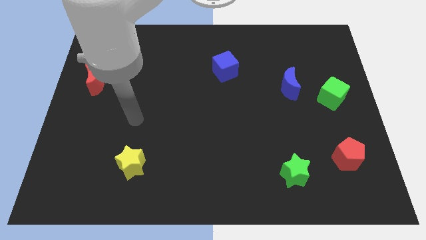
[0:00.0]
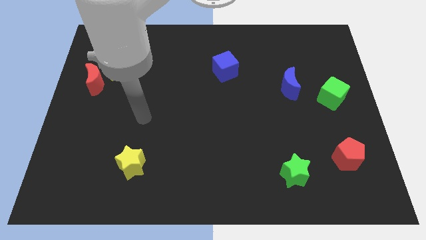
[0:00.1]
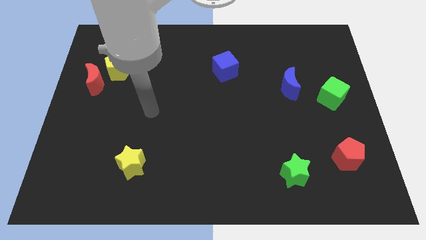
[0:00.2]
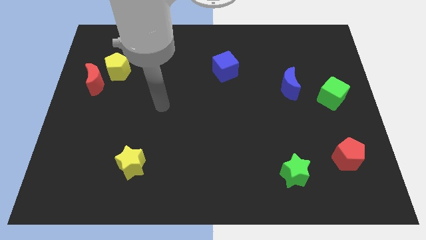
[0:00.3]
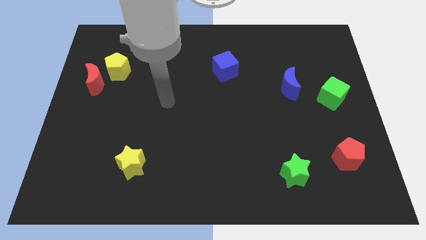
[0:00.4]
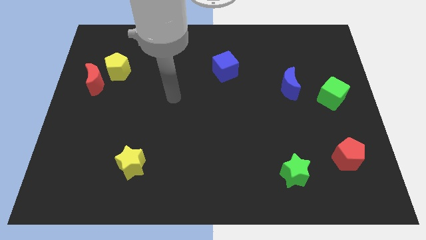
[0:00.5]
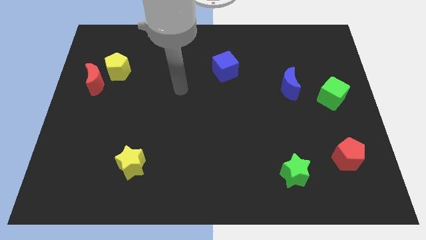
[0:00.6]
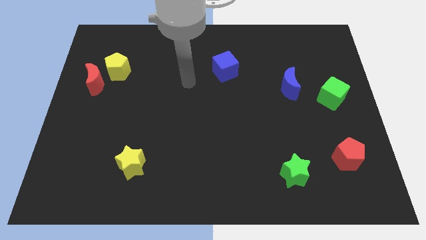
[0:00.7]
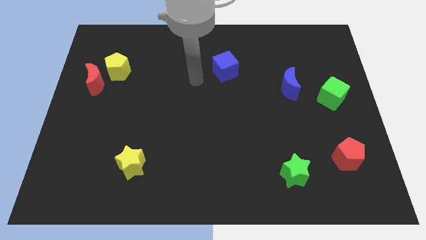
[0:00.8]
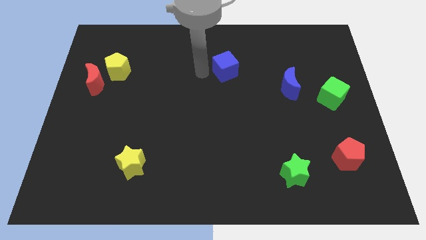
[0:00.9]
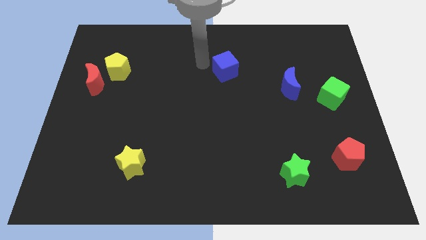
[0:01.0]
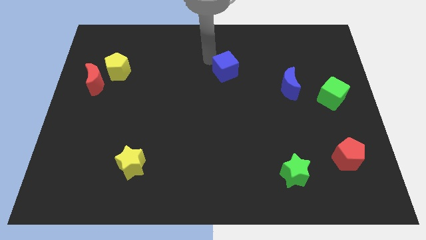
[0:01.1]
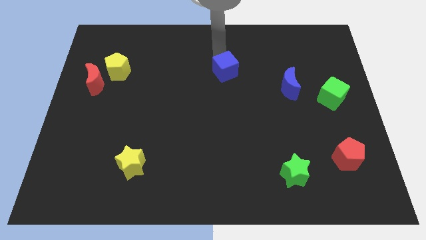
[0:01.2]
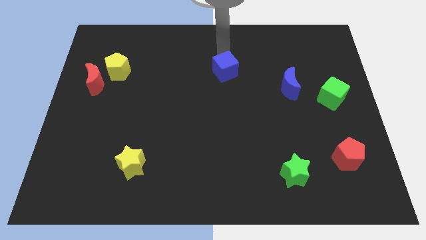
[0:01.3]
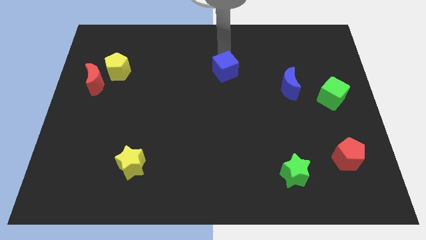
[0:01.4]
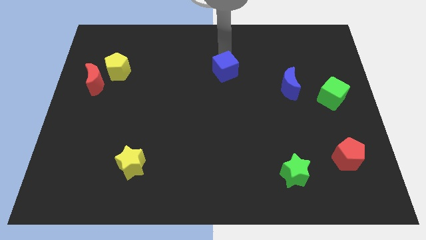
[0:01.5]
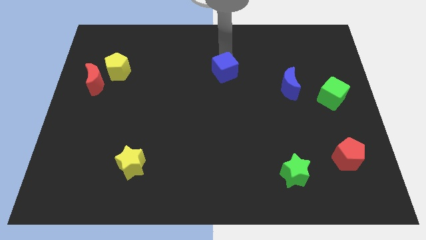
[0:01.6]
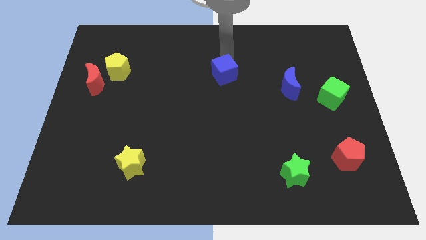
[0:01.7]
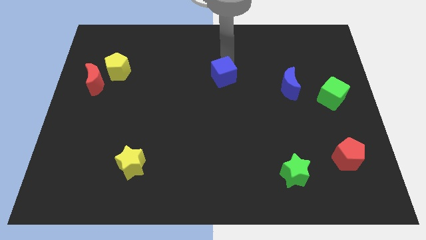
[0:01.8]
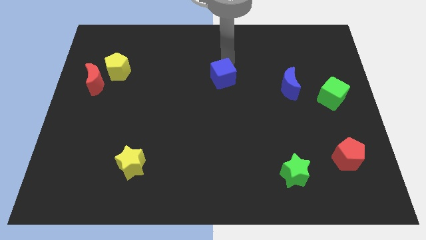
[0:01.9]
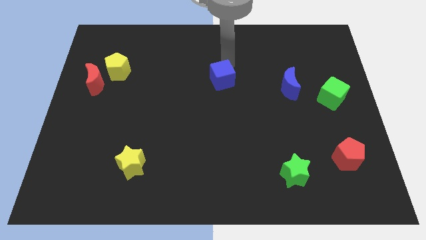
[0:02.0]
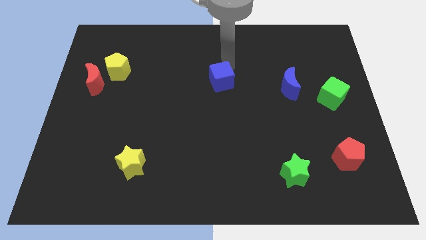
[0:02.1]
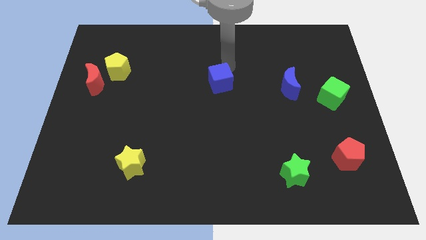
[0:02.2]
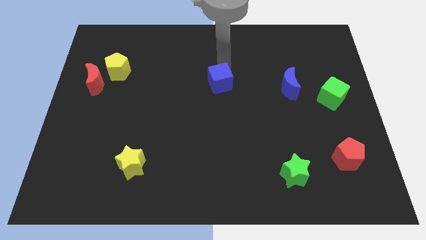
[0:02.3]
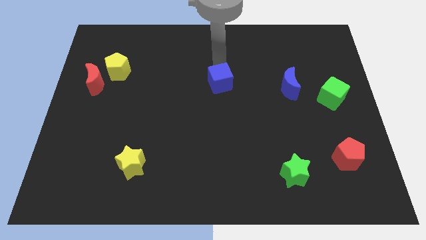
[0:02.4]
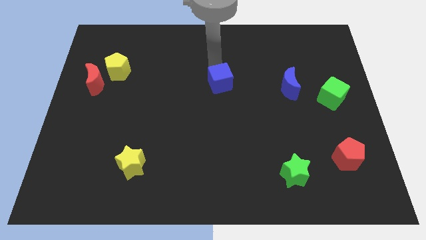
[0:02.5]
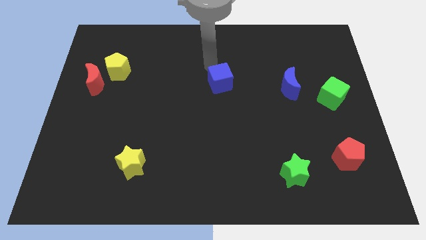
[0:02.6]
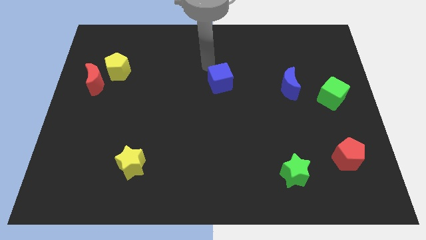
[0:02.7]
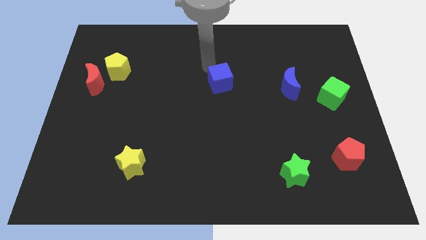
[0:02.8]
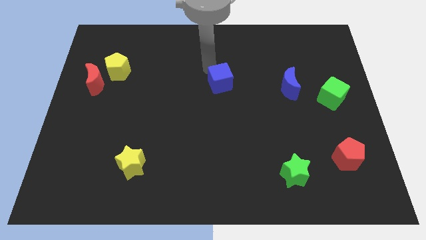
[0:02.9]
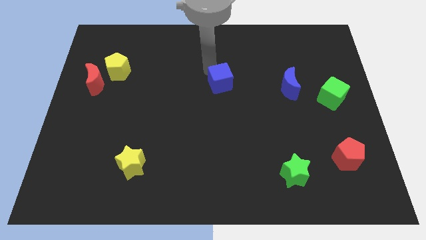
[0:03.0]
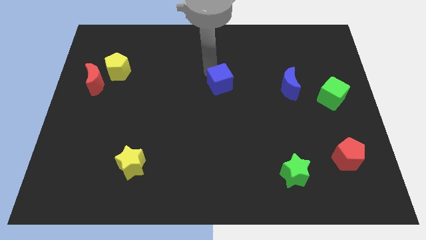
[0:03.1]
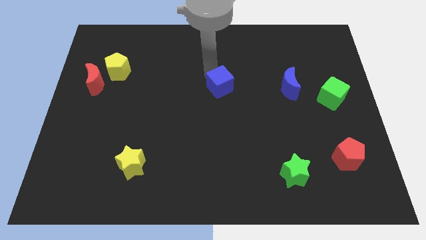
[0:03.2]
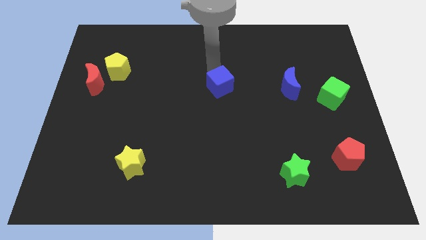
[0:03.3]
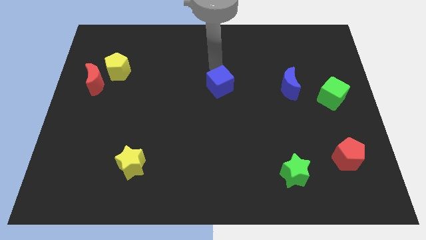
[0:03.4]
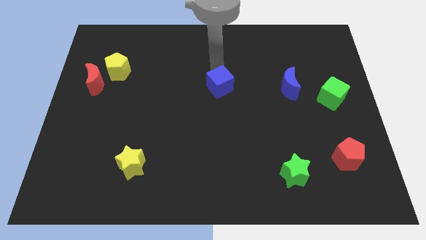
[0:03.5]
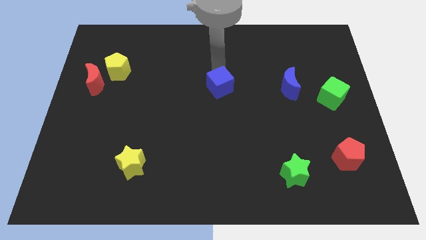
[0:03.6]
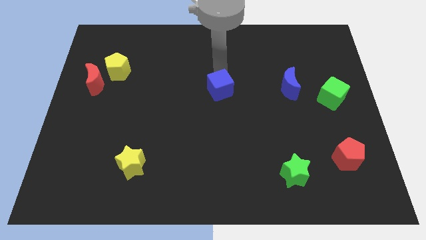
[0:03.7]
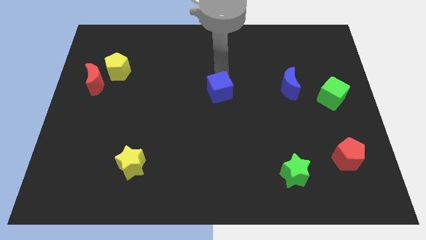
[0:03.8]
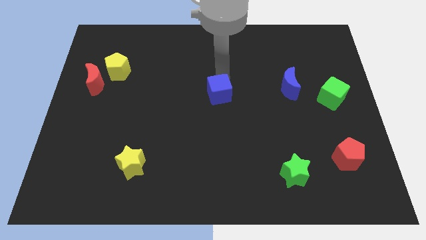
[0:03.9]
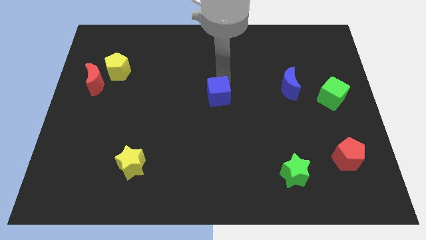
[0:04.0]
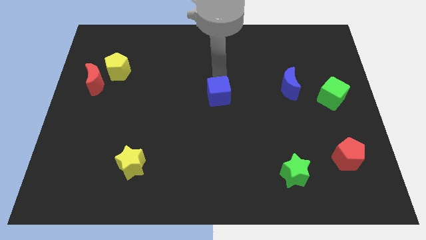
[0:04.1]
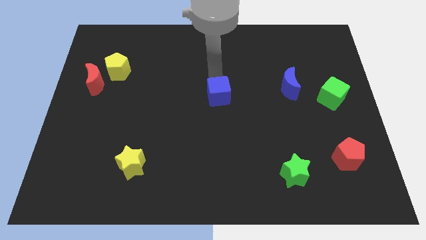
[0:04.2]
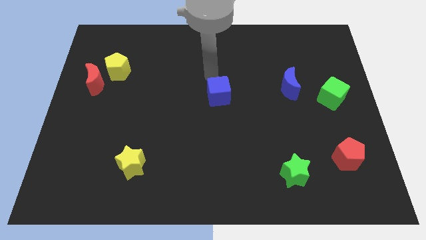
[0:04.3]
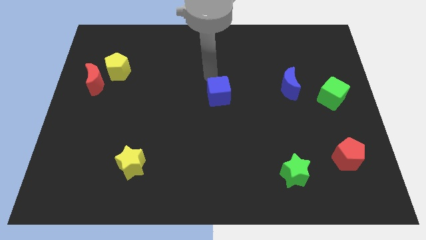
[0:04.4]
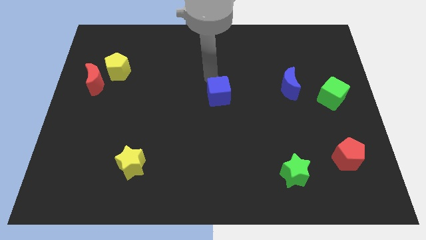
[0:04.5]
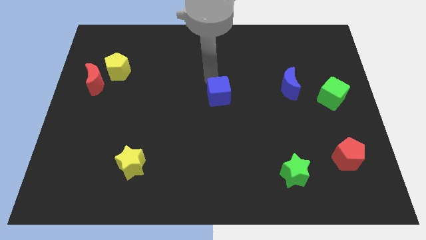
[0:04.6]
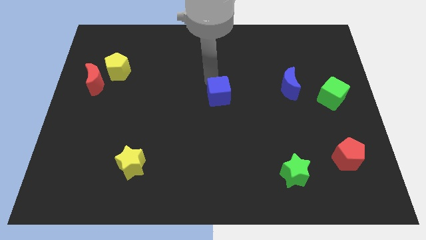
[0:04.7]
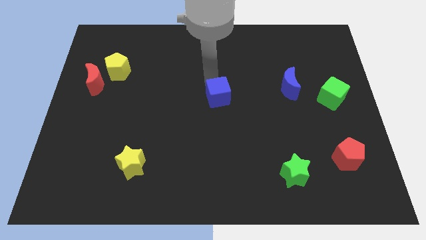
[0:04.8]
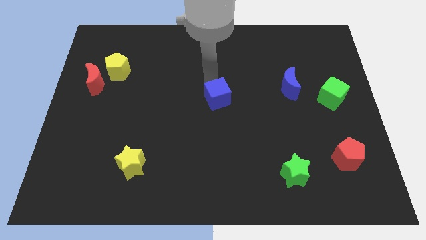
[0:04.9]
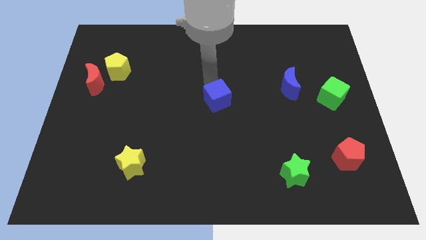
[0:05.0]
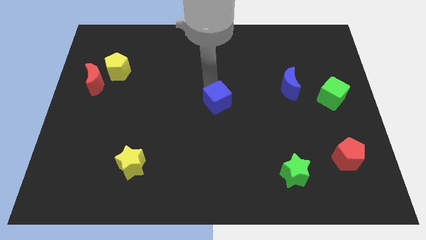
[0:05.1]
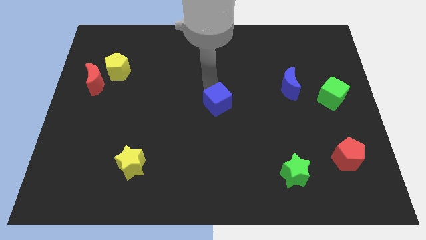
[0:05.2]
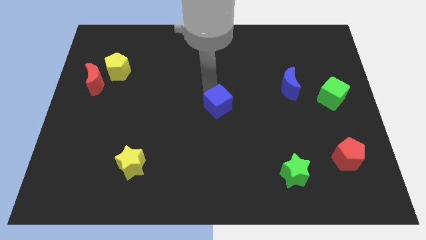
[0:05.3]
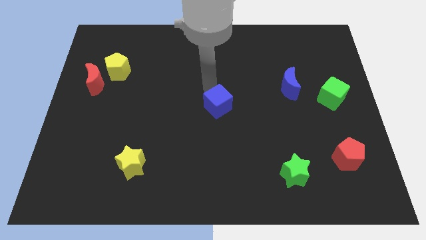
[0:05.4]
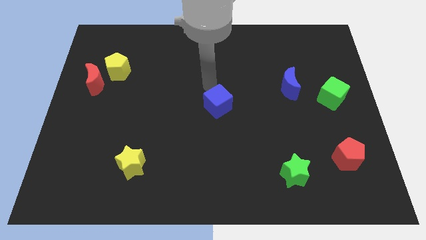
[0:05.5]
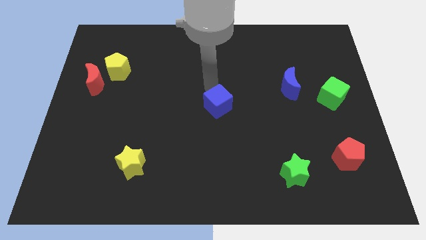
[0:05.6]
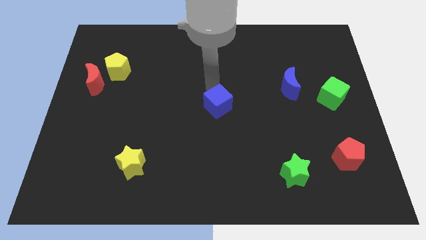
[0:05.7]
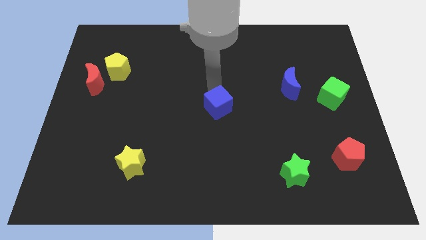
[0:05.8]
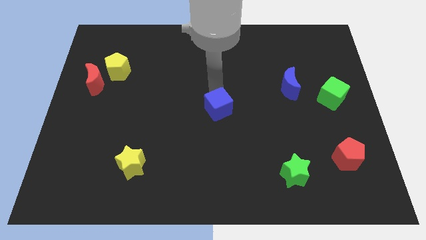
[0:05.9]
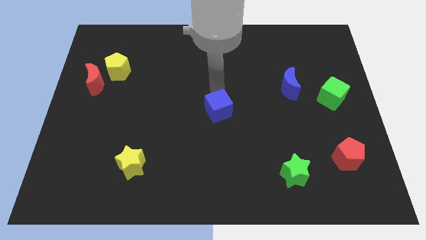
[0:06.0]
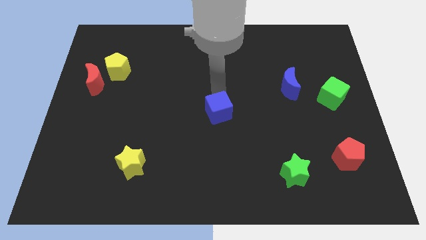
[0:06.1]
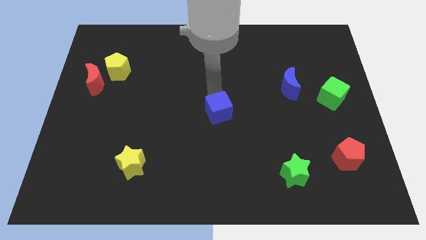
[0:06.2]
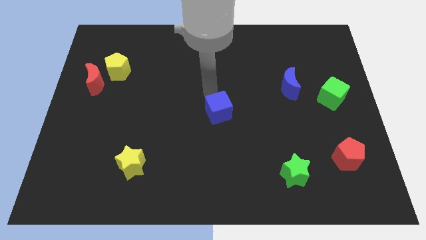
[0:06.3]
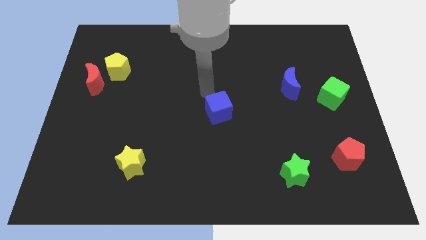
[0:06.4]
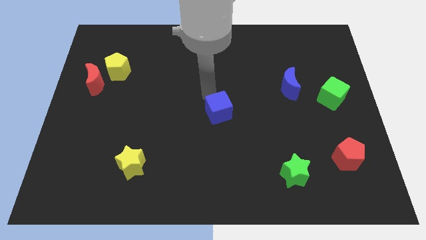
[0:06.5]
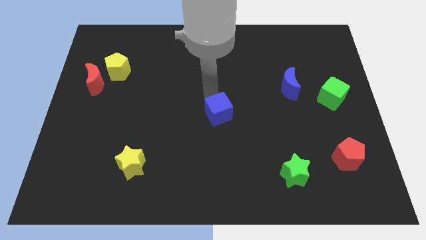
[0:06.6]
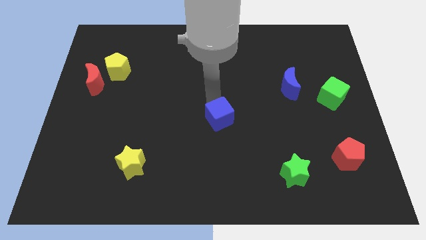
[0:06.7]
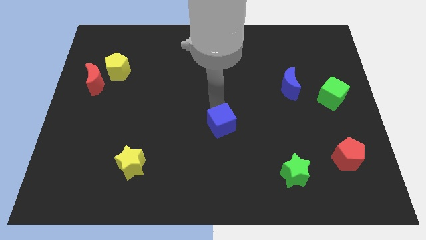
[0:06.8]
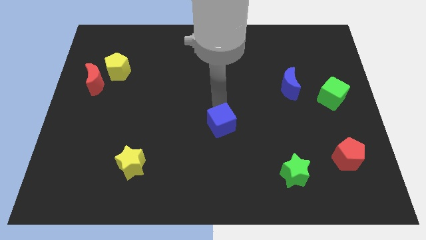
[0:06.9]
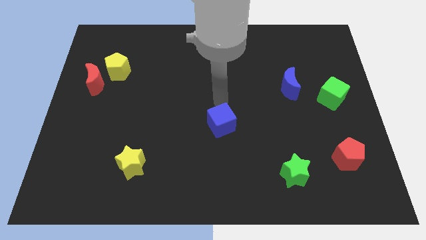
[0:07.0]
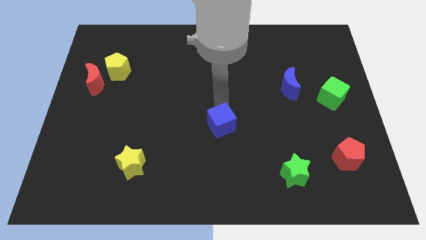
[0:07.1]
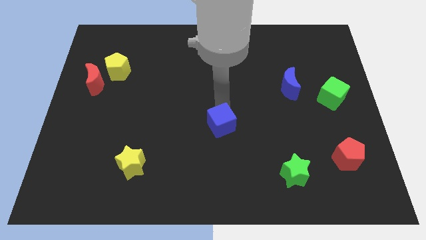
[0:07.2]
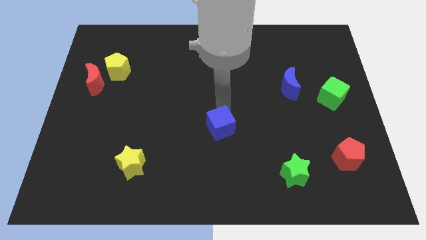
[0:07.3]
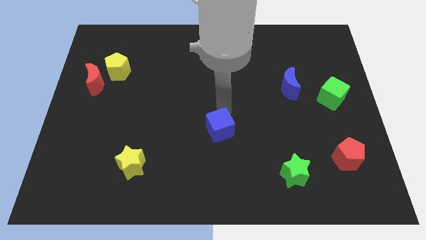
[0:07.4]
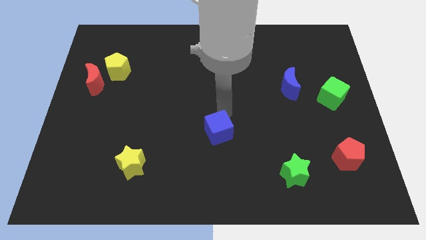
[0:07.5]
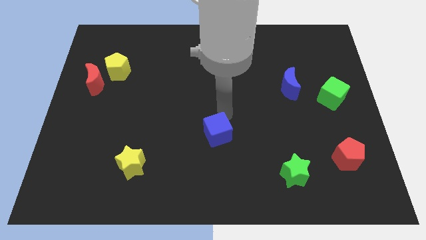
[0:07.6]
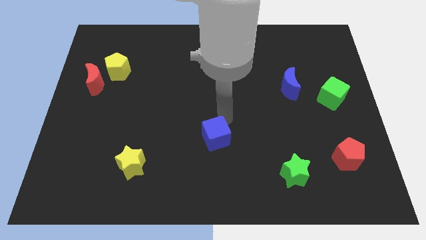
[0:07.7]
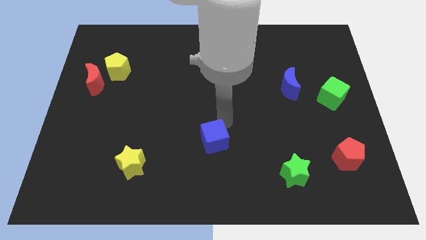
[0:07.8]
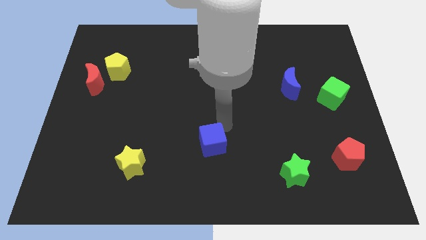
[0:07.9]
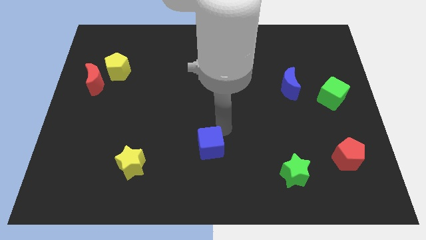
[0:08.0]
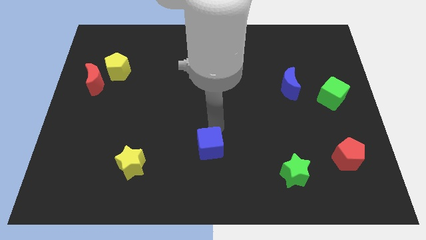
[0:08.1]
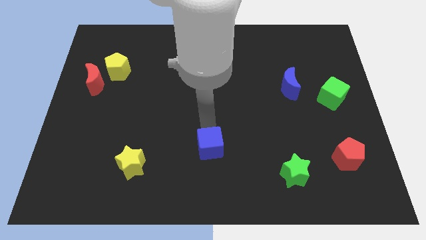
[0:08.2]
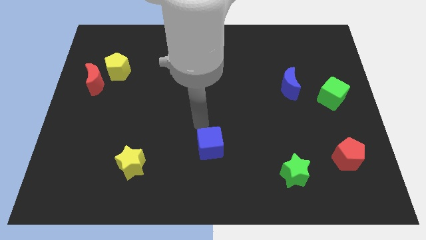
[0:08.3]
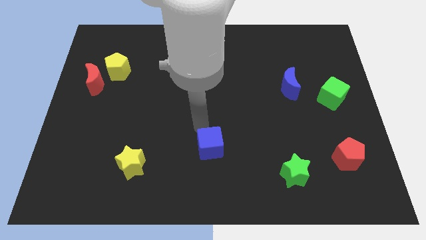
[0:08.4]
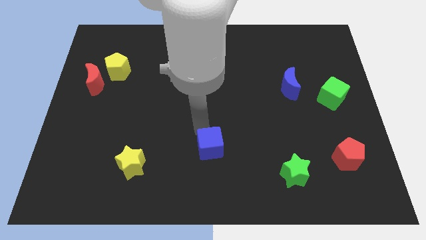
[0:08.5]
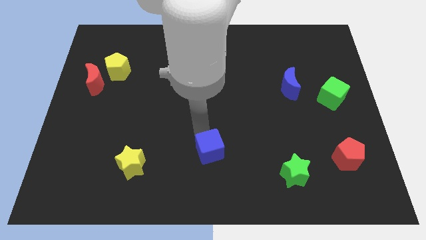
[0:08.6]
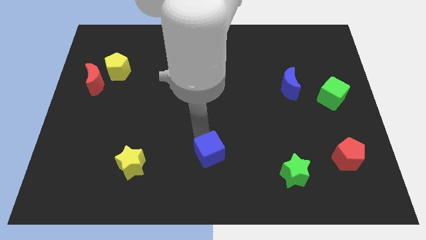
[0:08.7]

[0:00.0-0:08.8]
slide the blue cube to the bottom
